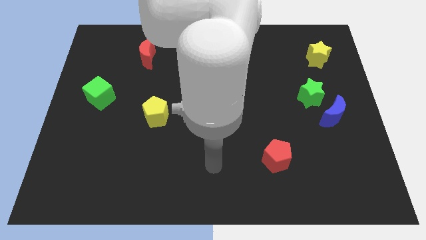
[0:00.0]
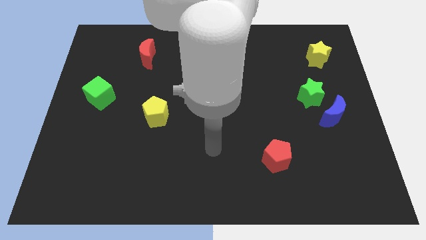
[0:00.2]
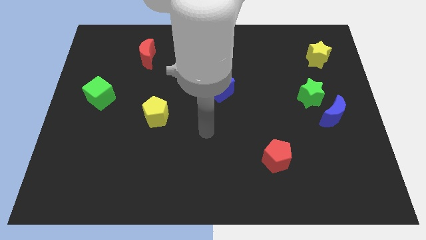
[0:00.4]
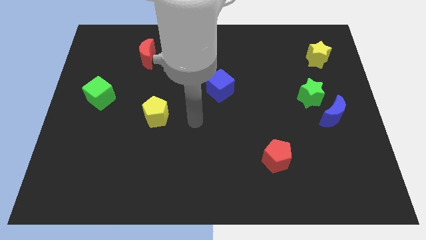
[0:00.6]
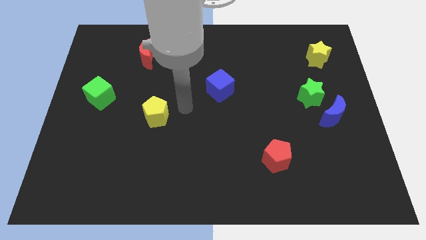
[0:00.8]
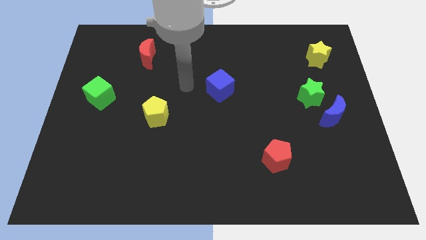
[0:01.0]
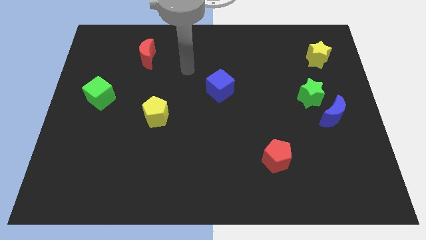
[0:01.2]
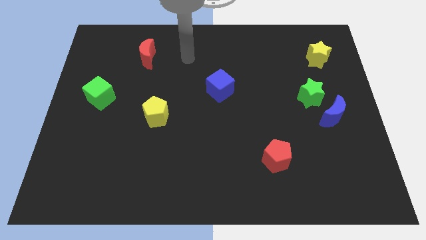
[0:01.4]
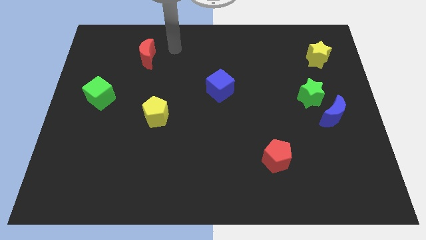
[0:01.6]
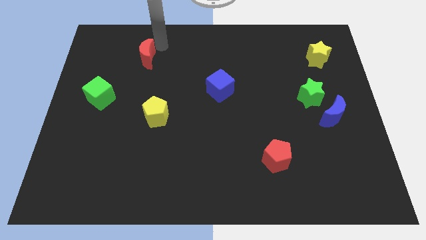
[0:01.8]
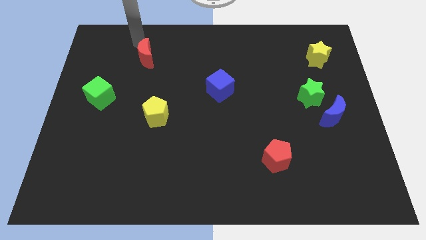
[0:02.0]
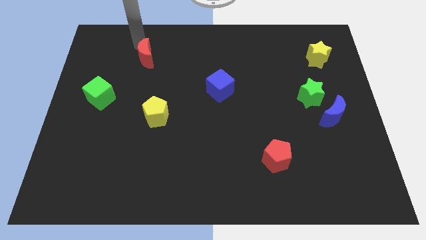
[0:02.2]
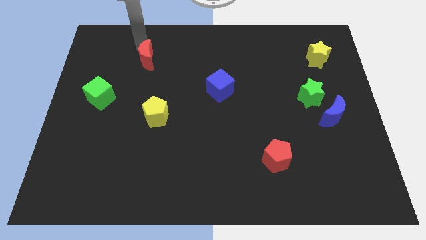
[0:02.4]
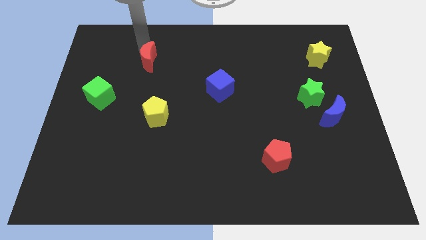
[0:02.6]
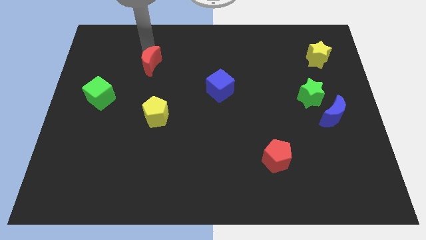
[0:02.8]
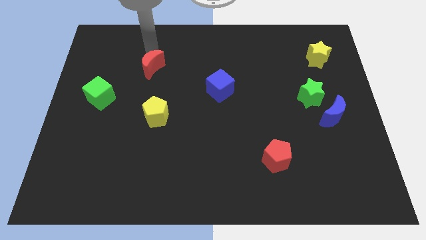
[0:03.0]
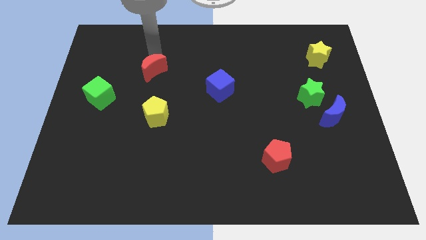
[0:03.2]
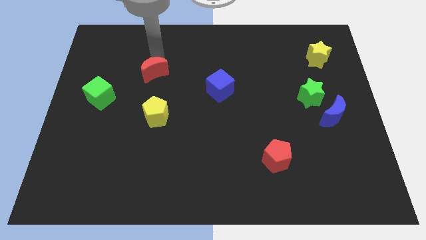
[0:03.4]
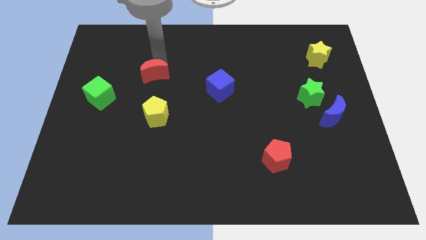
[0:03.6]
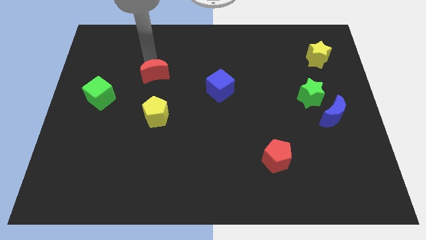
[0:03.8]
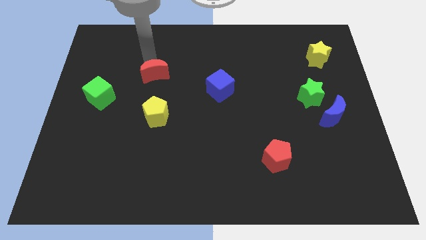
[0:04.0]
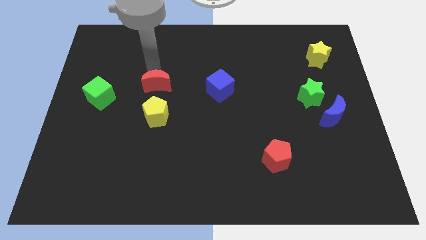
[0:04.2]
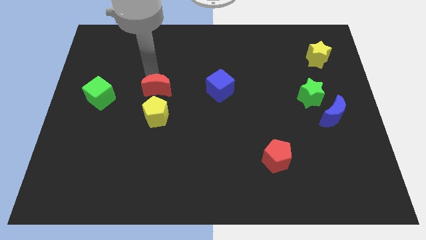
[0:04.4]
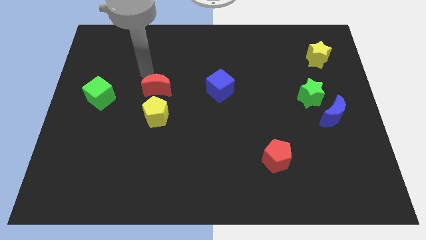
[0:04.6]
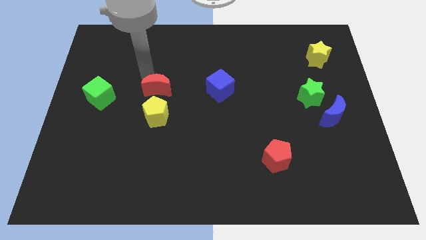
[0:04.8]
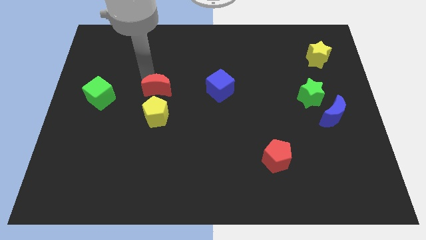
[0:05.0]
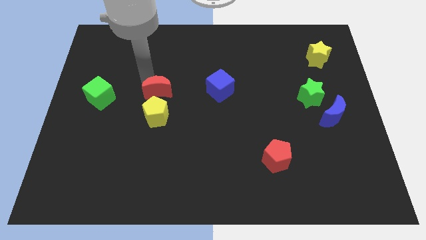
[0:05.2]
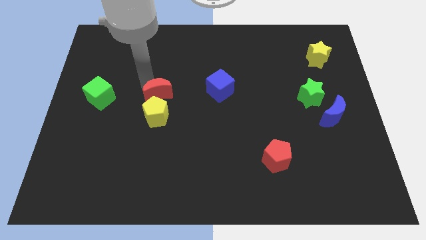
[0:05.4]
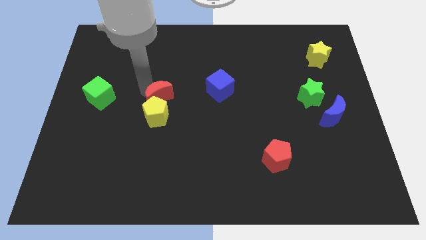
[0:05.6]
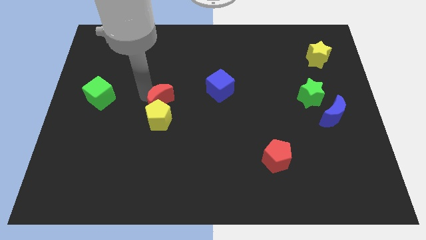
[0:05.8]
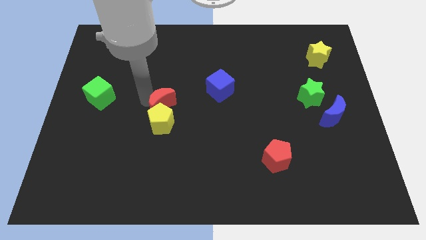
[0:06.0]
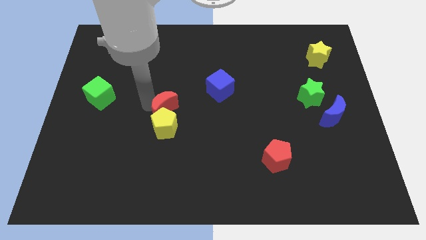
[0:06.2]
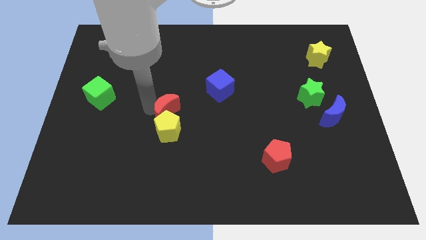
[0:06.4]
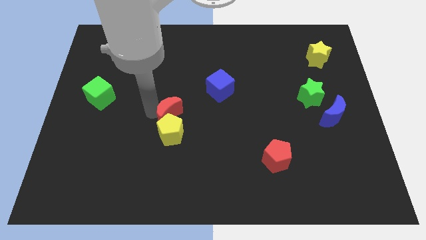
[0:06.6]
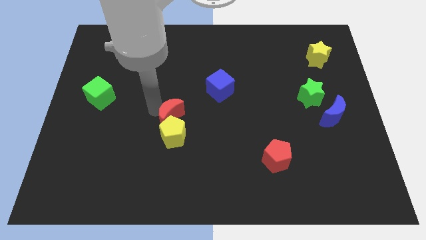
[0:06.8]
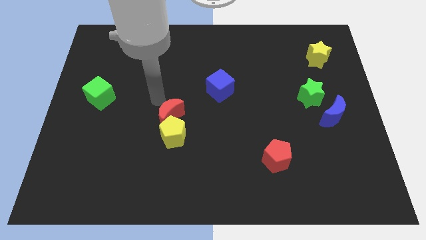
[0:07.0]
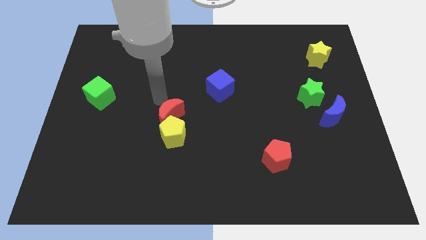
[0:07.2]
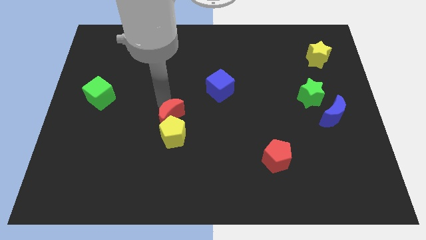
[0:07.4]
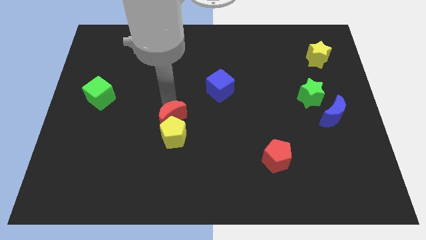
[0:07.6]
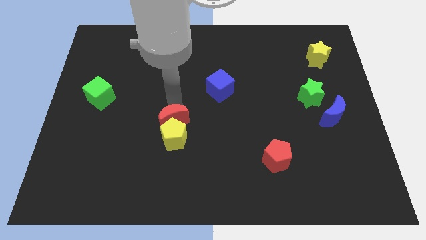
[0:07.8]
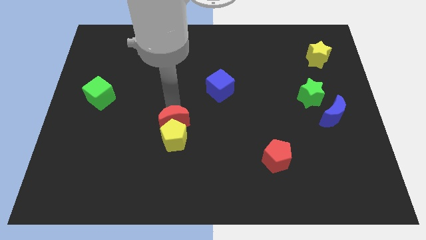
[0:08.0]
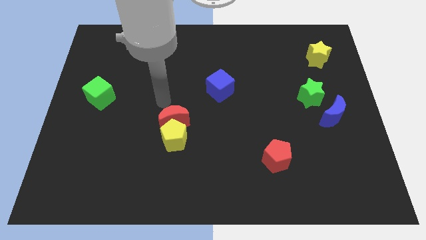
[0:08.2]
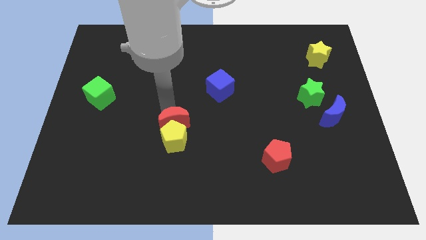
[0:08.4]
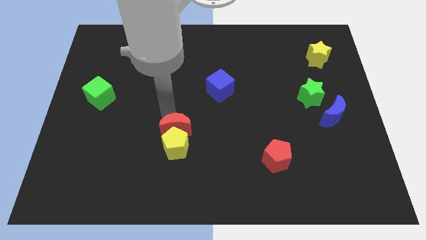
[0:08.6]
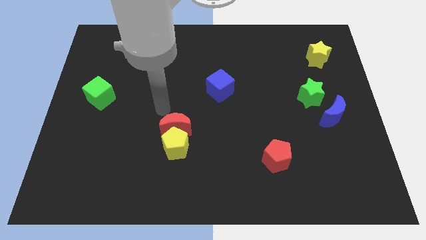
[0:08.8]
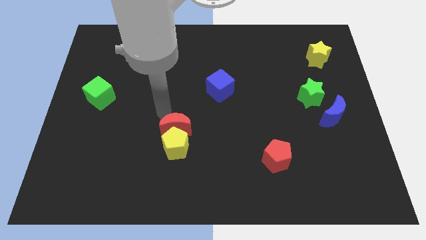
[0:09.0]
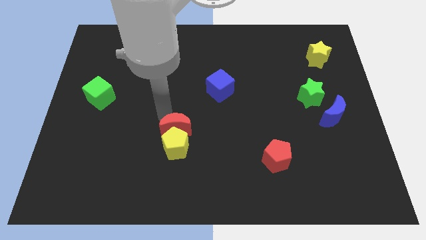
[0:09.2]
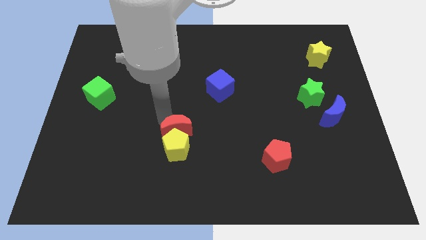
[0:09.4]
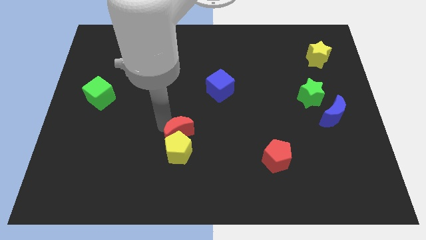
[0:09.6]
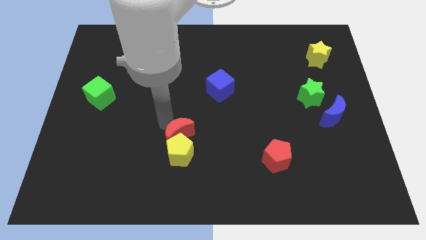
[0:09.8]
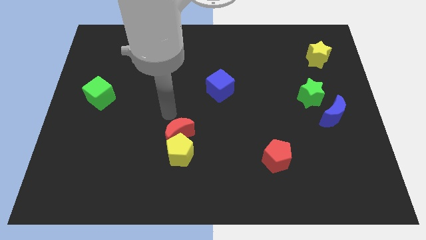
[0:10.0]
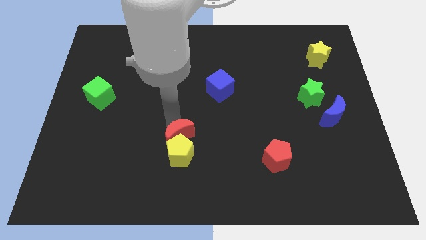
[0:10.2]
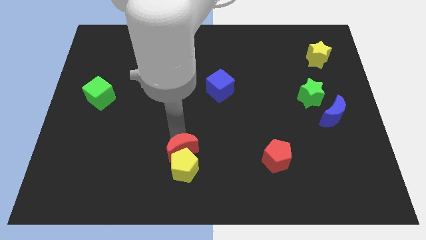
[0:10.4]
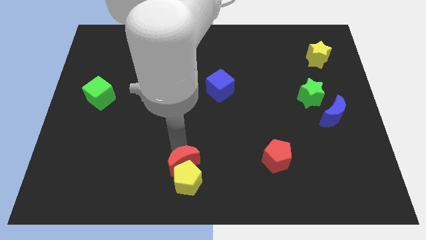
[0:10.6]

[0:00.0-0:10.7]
push the red moon to the bottom side

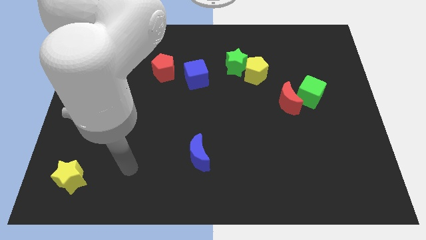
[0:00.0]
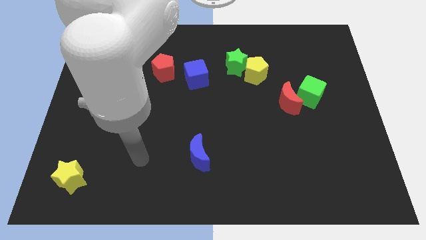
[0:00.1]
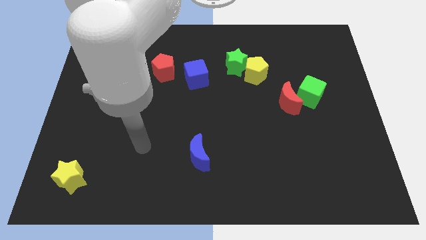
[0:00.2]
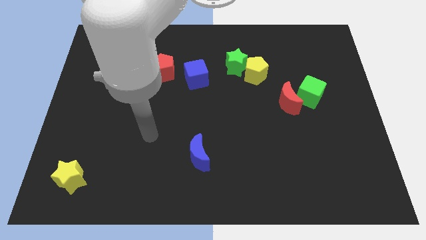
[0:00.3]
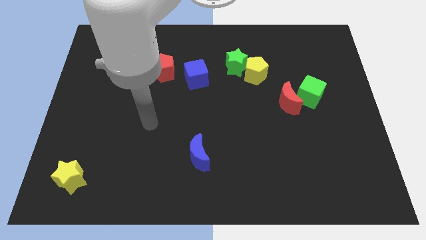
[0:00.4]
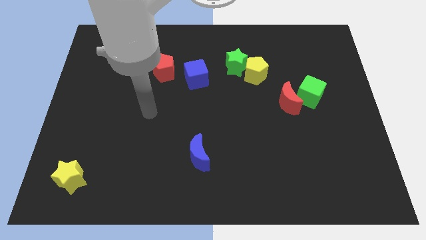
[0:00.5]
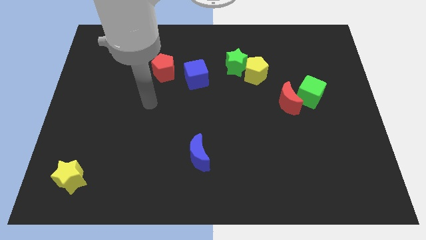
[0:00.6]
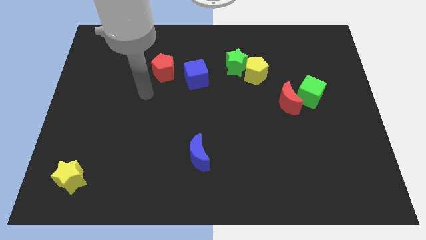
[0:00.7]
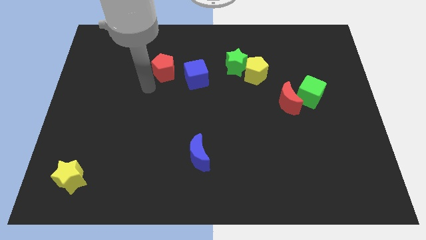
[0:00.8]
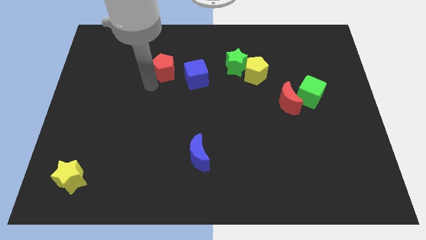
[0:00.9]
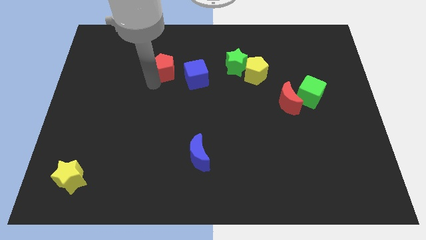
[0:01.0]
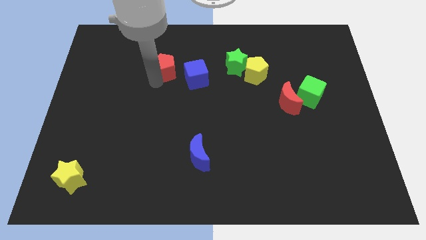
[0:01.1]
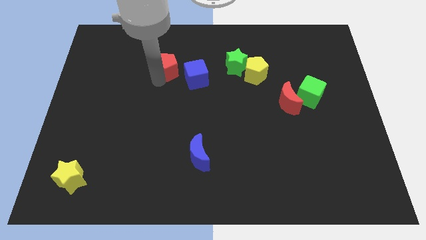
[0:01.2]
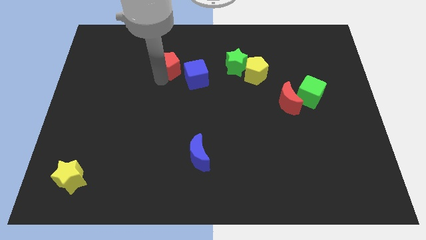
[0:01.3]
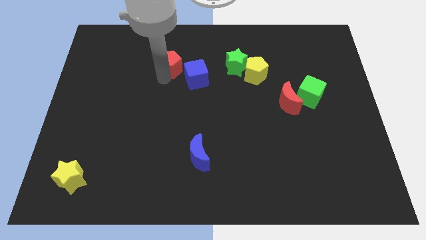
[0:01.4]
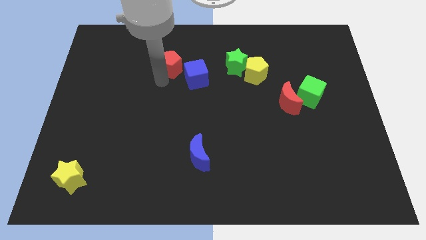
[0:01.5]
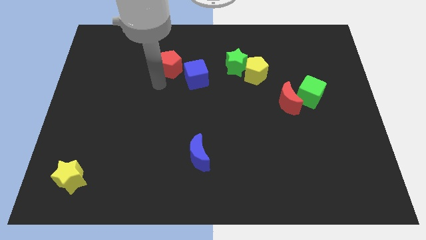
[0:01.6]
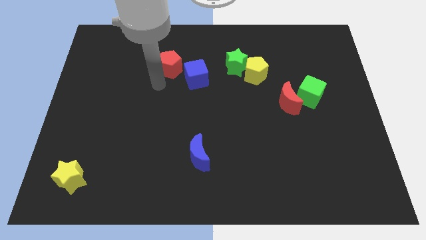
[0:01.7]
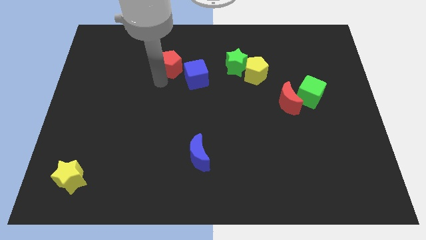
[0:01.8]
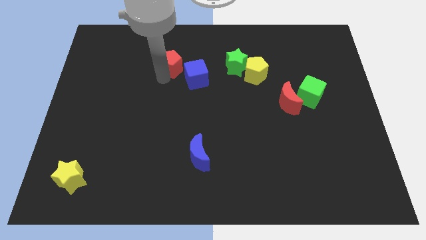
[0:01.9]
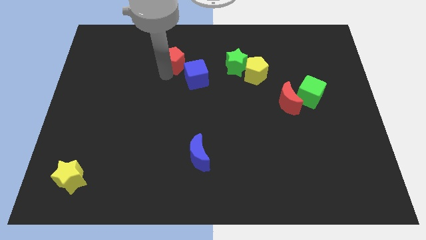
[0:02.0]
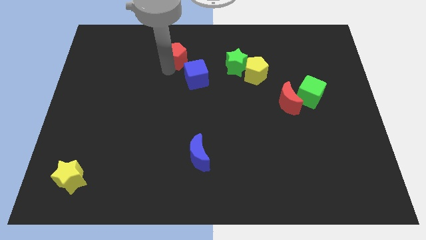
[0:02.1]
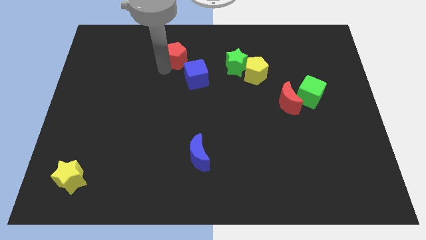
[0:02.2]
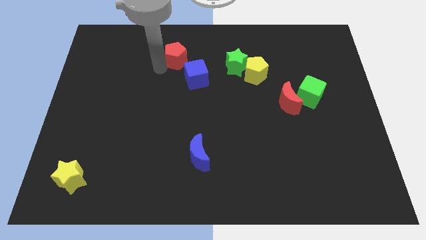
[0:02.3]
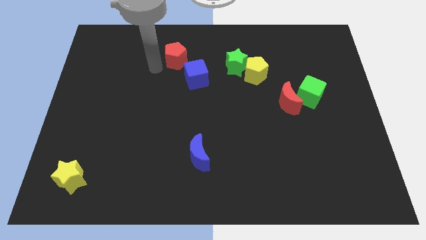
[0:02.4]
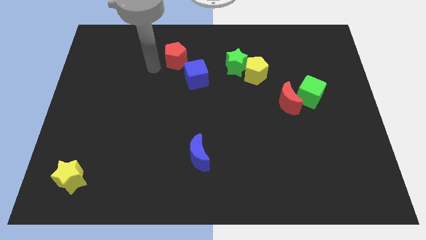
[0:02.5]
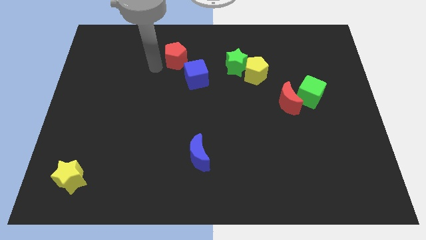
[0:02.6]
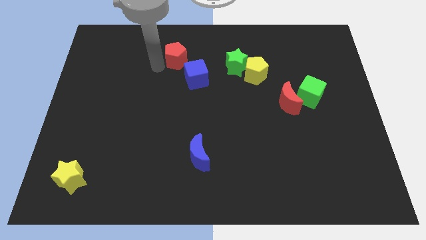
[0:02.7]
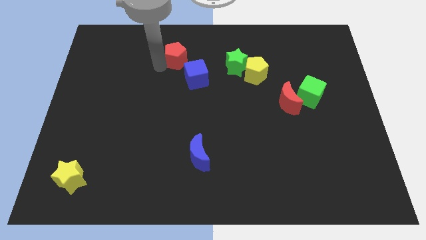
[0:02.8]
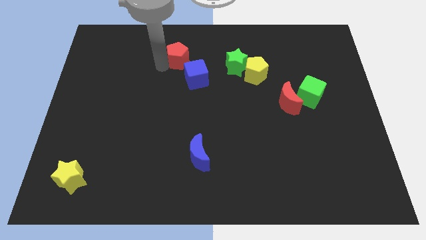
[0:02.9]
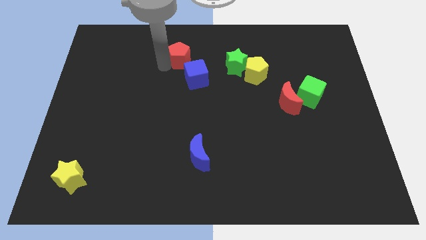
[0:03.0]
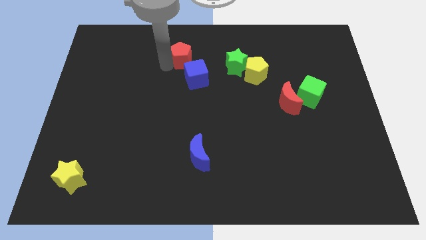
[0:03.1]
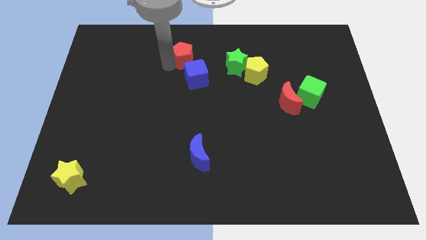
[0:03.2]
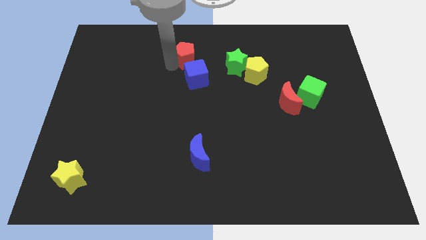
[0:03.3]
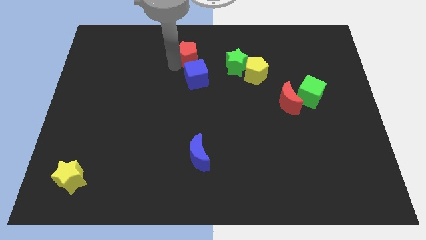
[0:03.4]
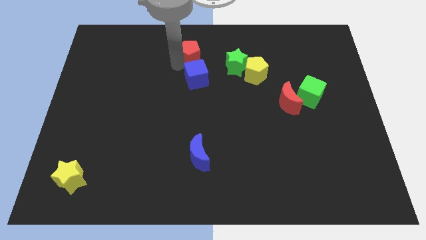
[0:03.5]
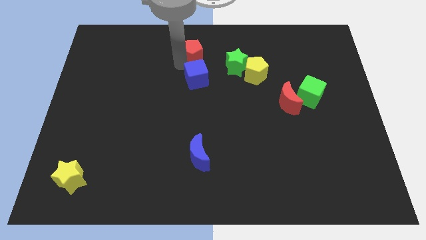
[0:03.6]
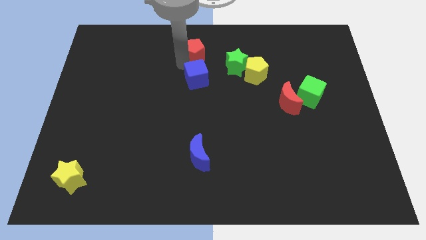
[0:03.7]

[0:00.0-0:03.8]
slide the red pentagon to the towards your base
